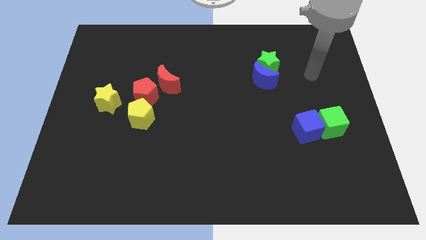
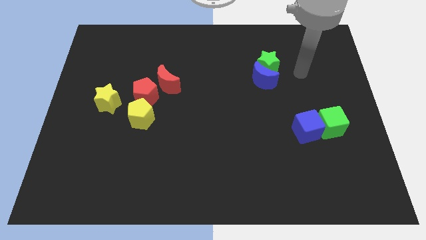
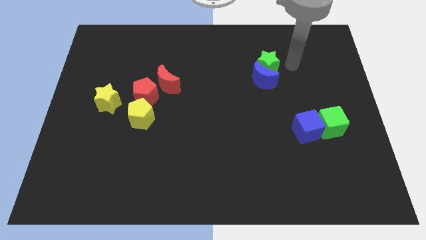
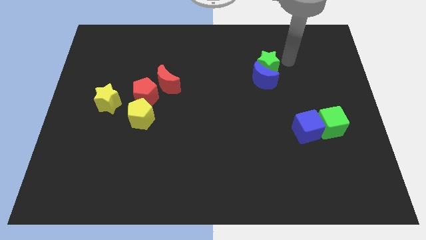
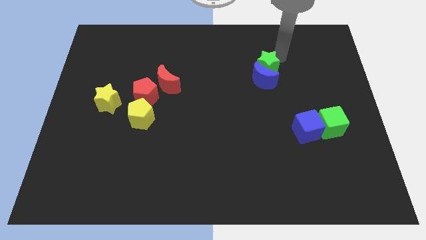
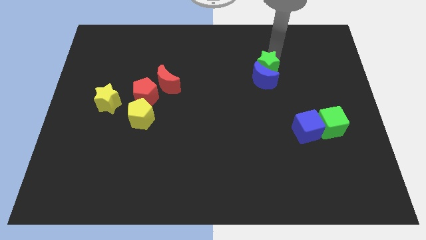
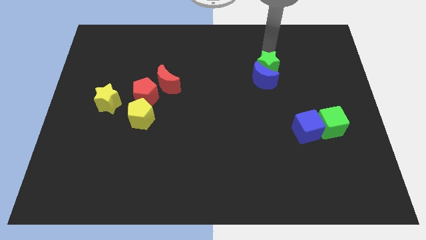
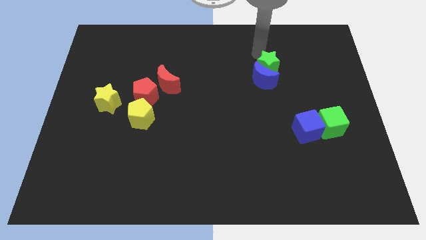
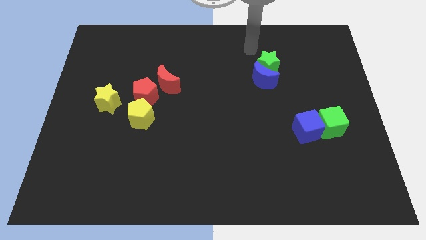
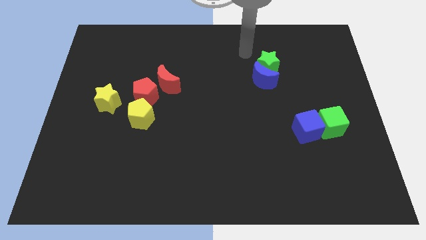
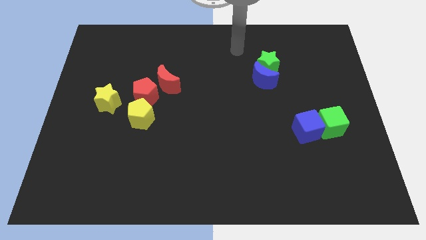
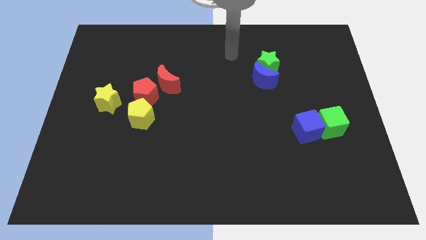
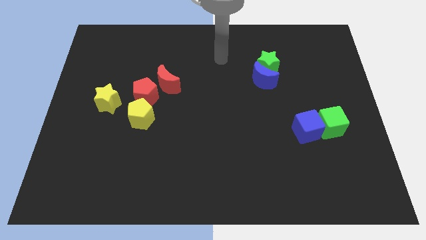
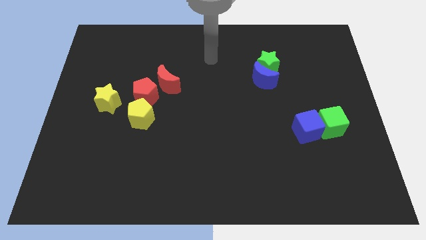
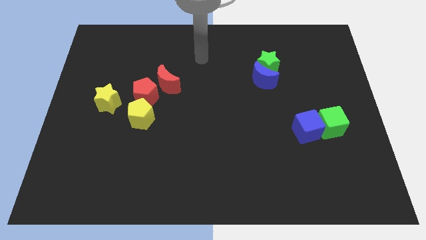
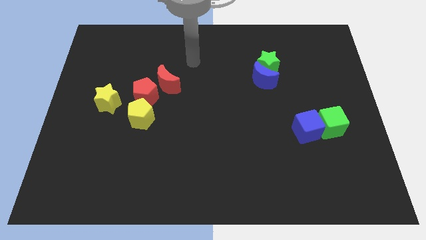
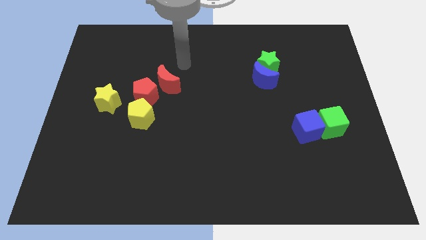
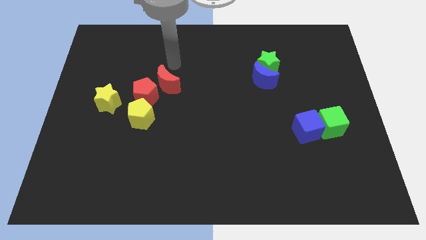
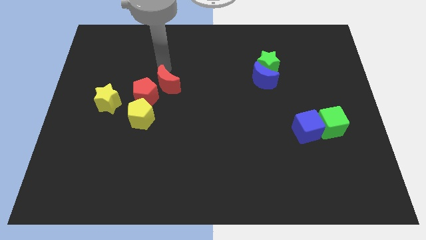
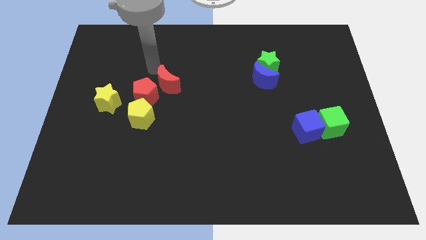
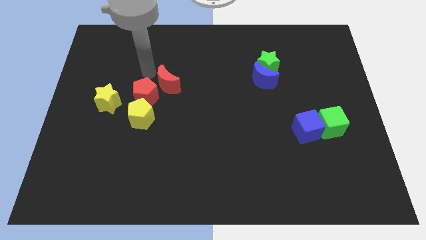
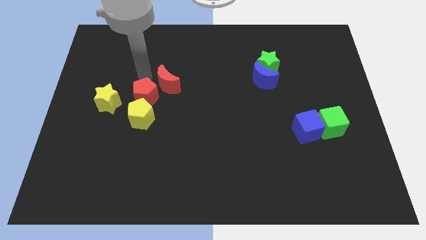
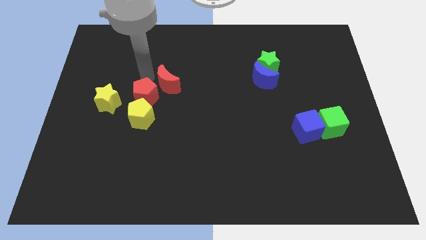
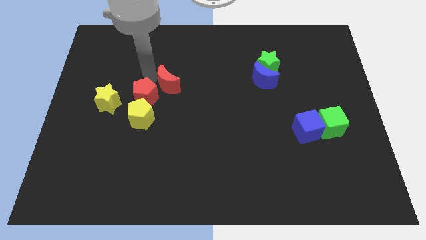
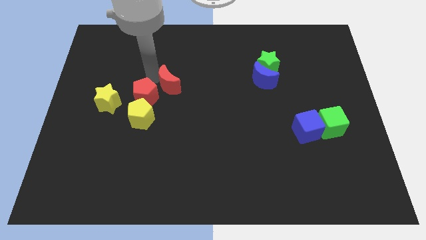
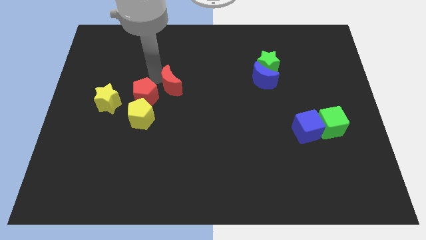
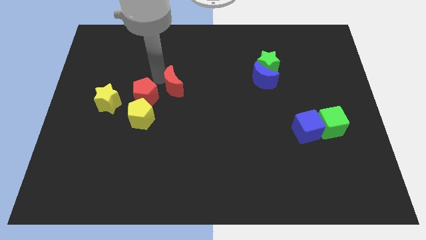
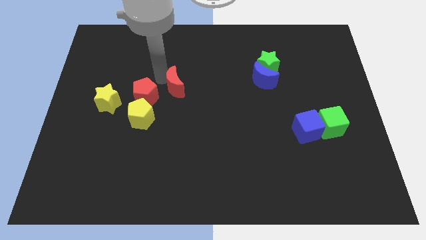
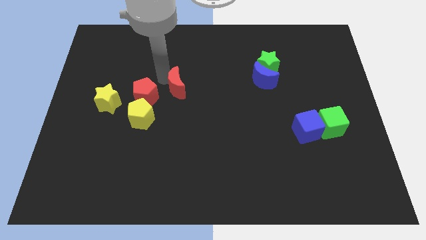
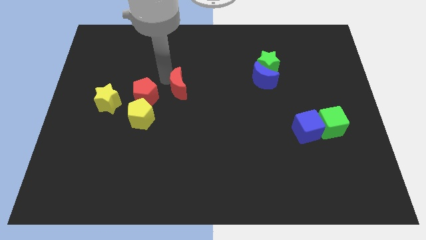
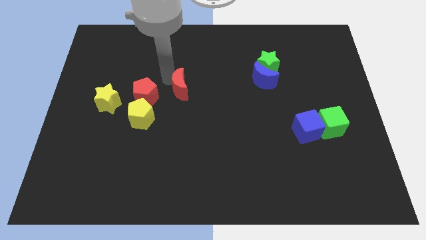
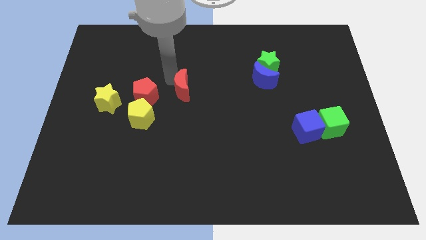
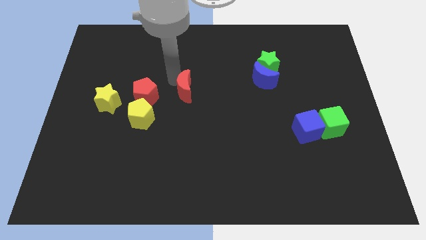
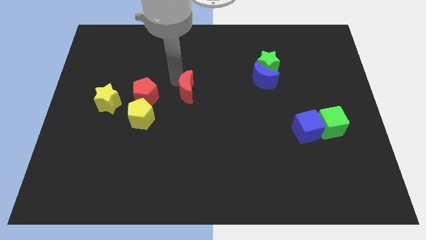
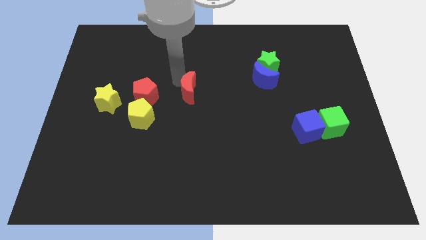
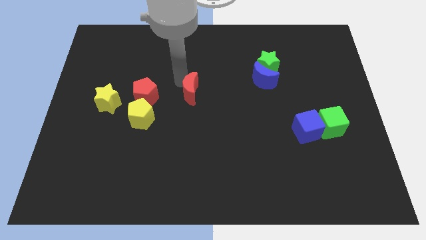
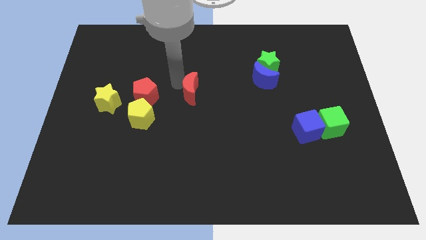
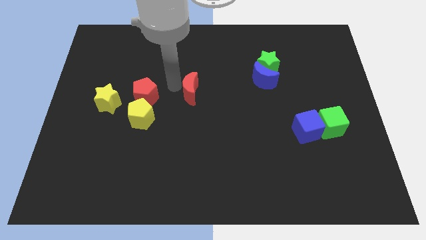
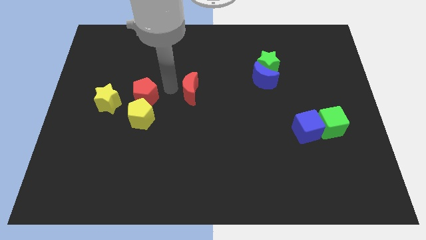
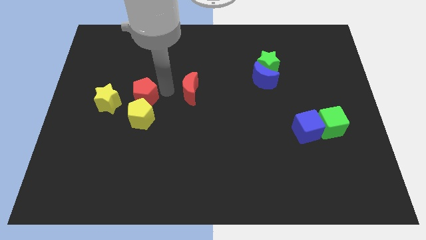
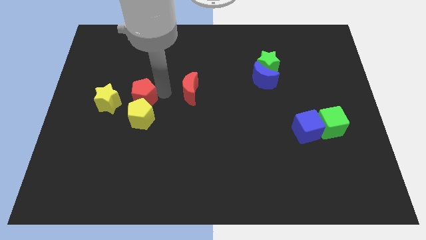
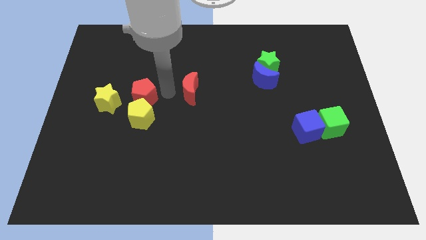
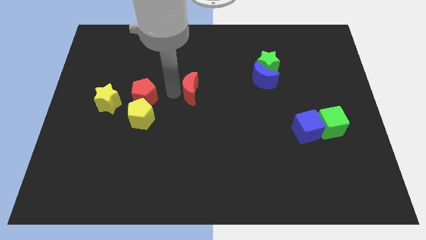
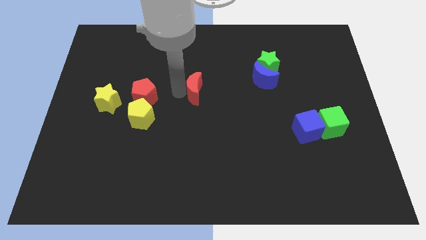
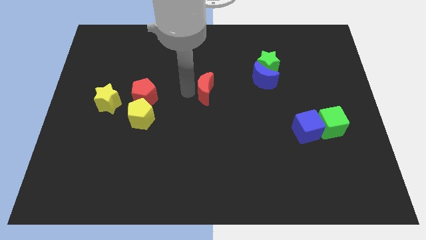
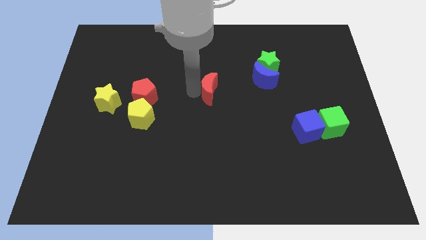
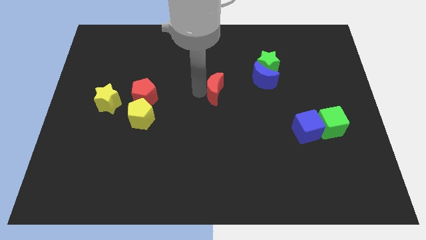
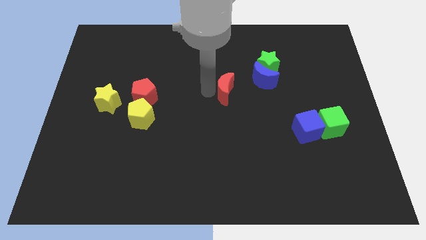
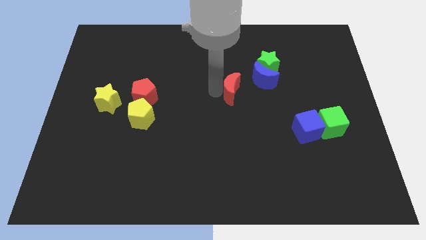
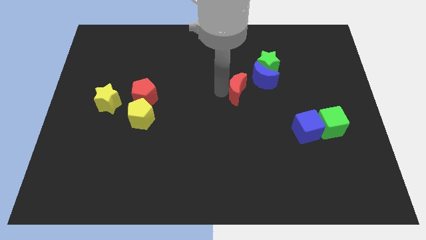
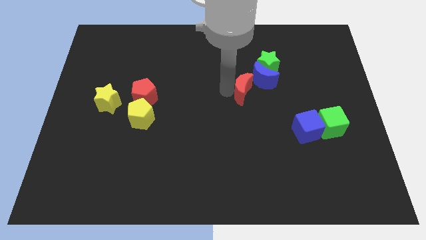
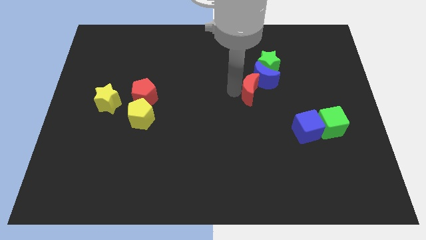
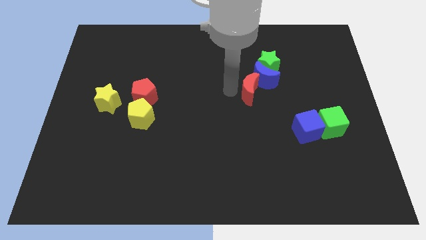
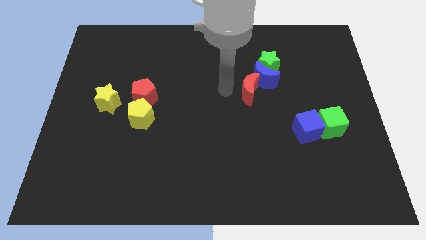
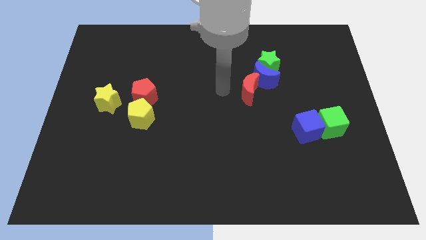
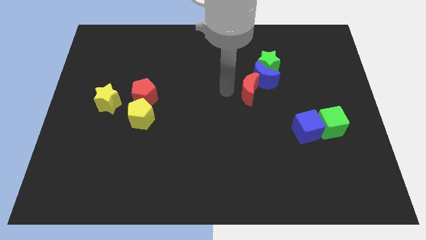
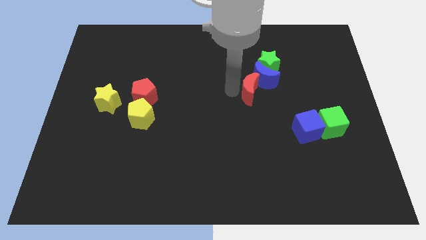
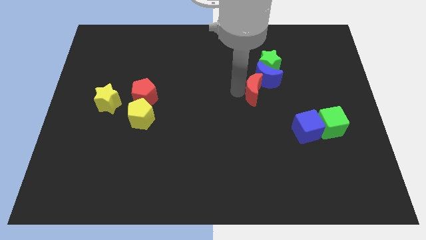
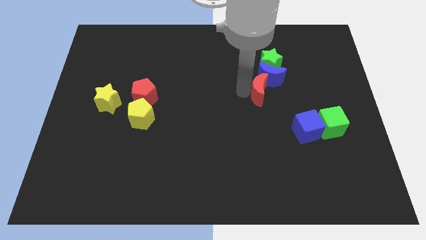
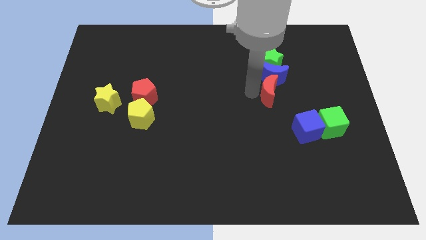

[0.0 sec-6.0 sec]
slide the red moon diagonally down and to the right of the blue moon

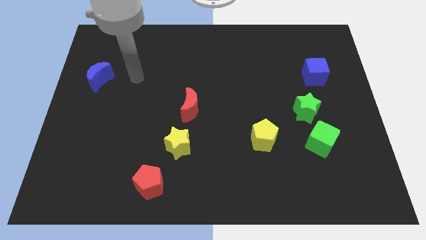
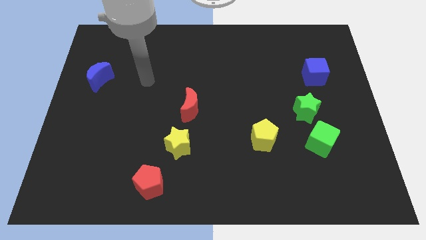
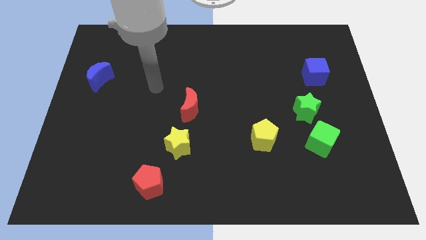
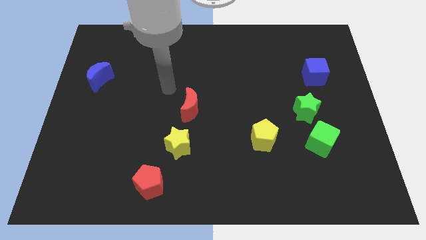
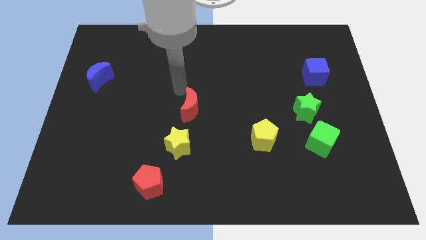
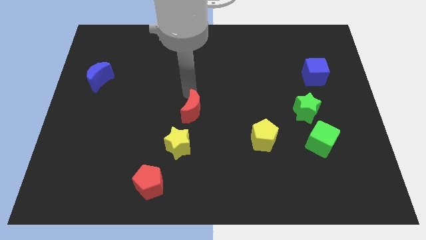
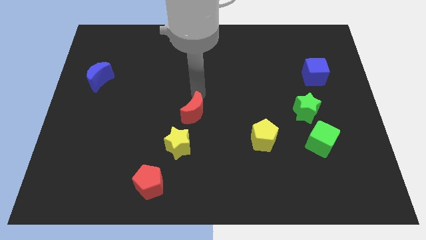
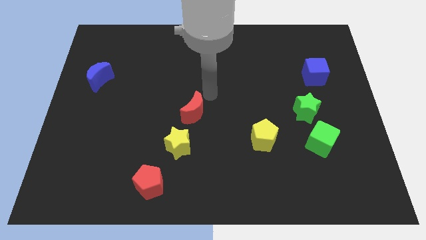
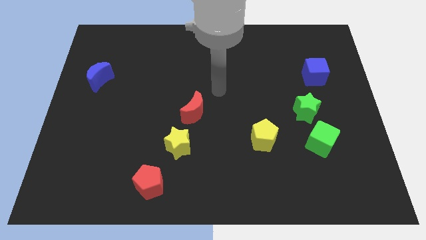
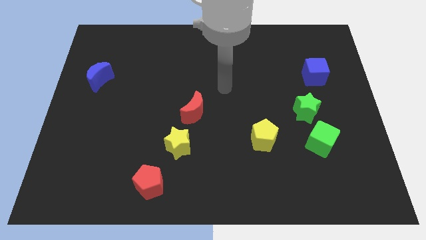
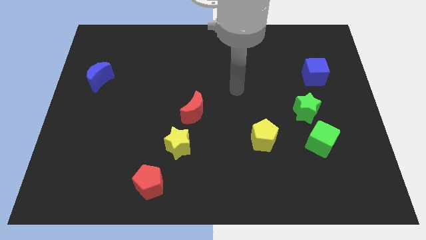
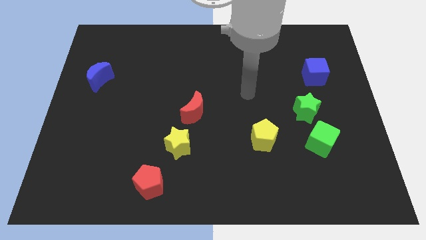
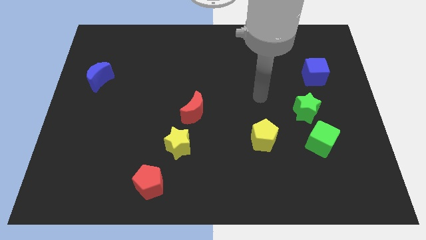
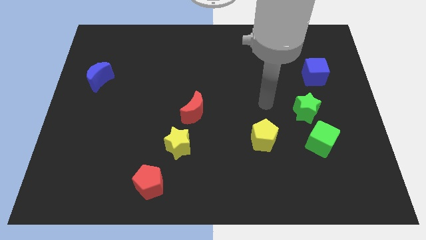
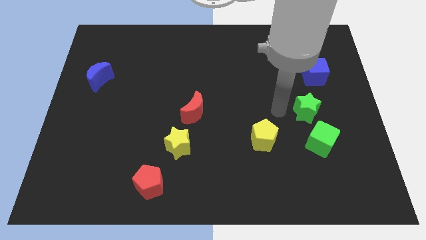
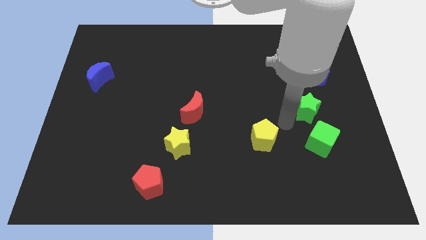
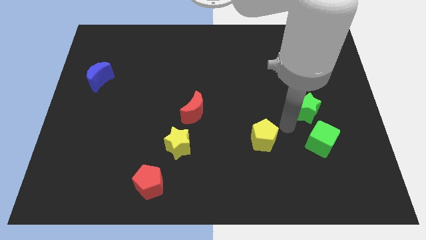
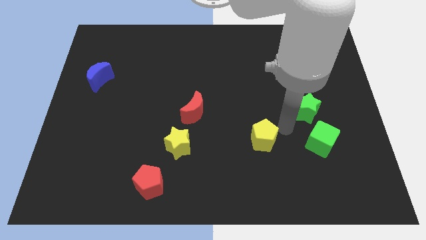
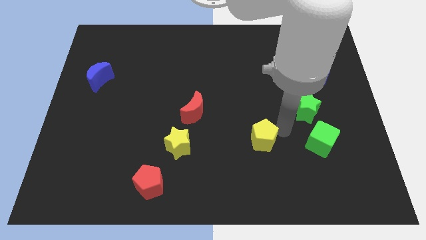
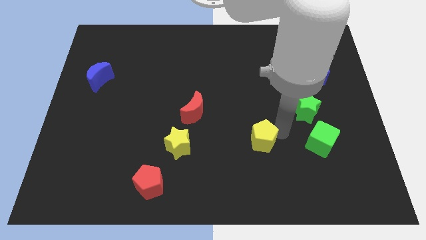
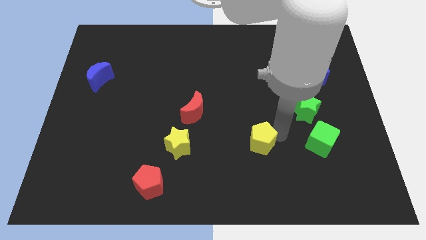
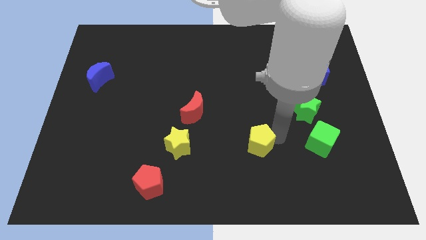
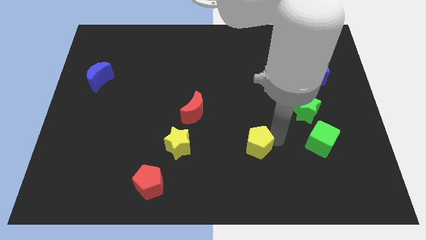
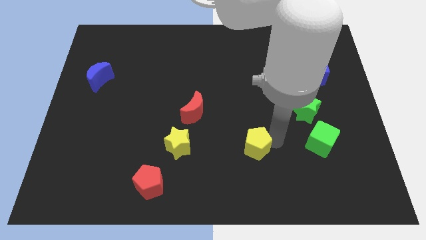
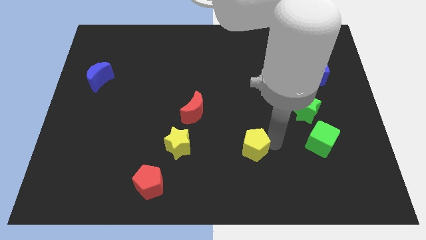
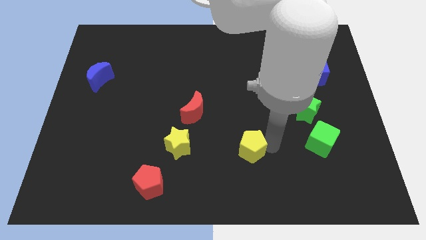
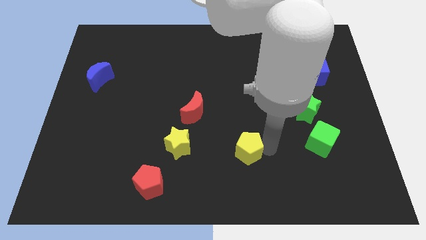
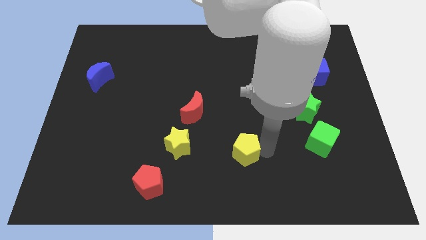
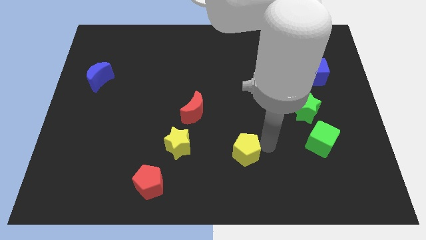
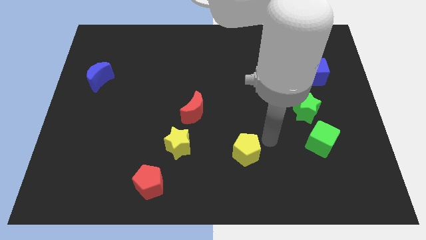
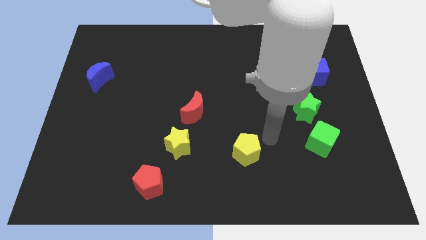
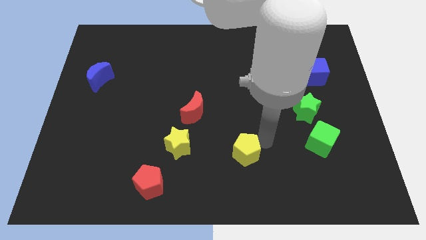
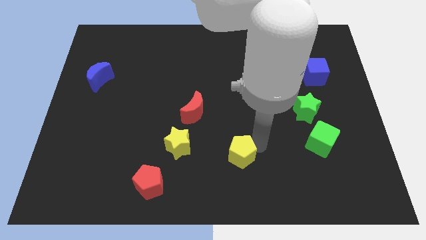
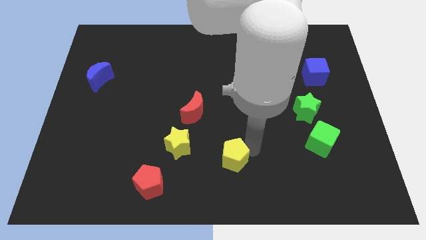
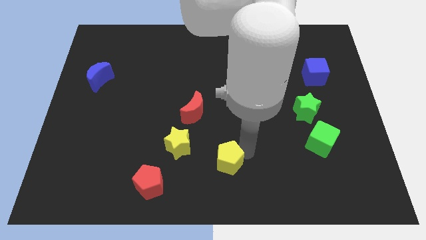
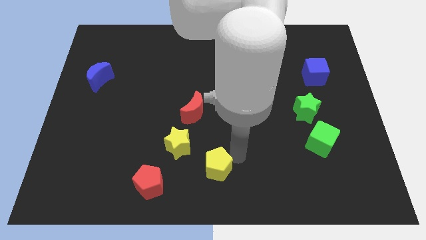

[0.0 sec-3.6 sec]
move the yellow pentagon just right of the red pentagon
